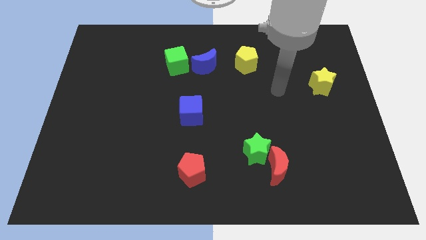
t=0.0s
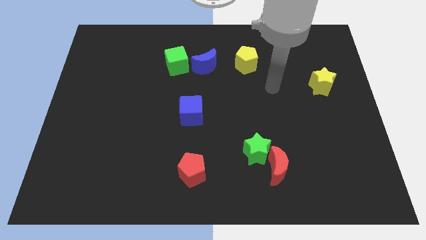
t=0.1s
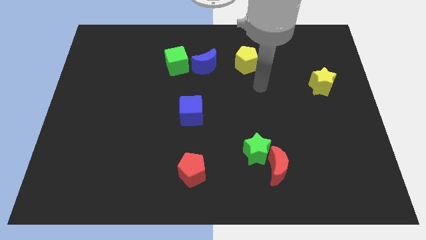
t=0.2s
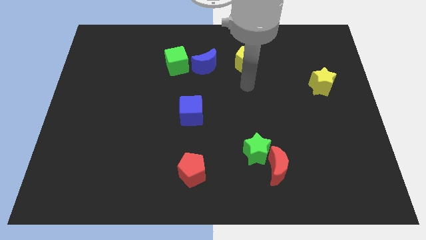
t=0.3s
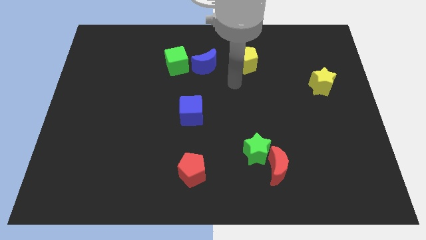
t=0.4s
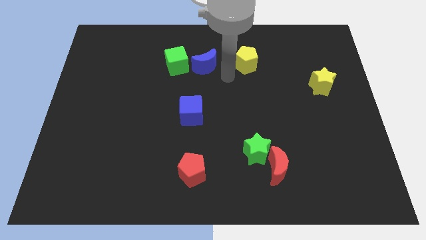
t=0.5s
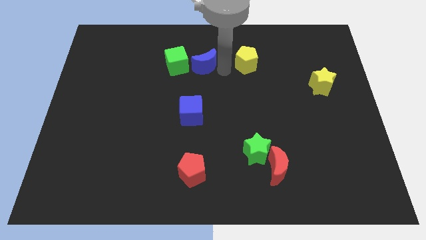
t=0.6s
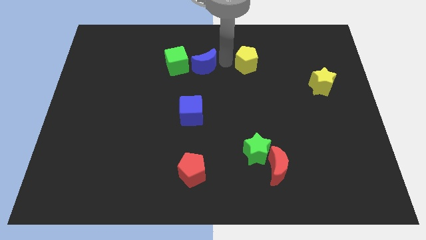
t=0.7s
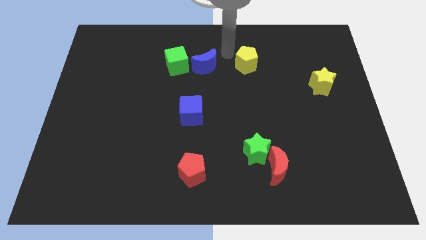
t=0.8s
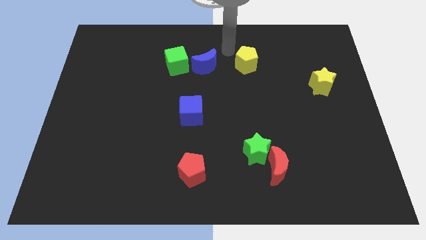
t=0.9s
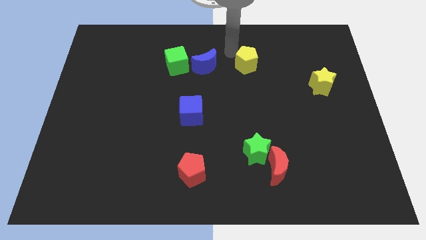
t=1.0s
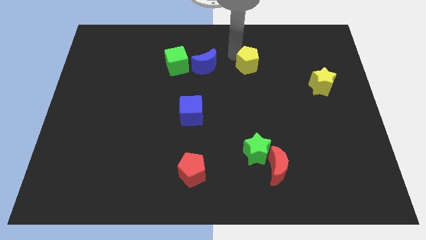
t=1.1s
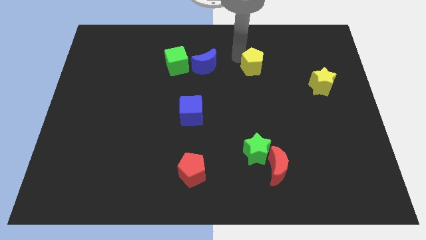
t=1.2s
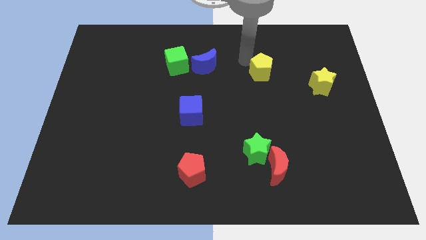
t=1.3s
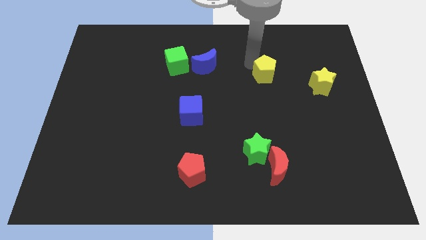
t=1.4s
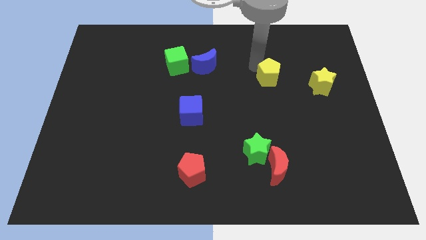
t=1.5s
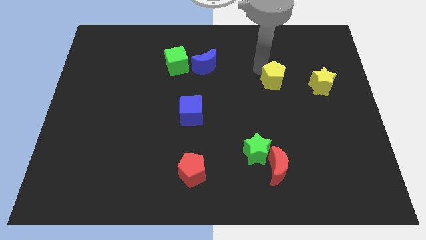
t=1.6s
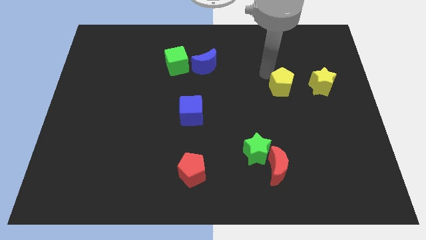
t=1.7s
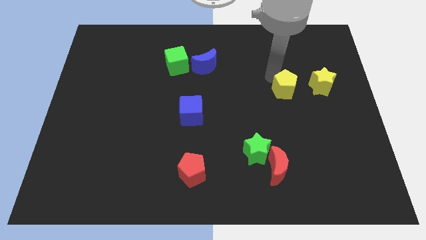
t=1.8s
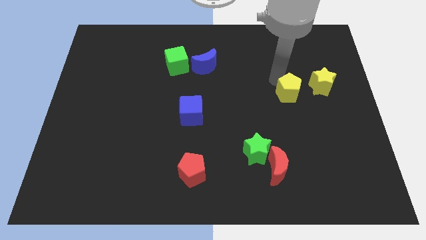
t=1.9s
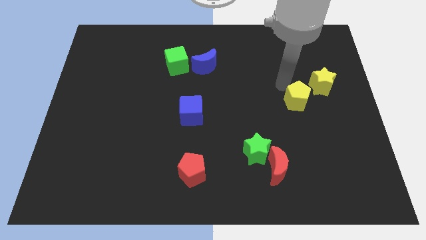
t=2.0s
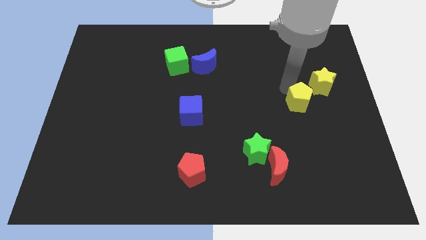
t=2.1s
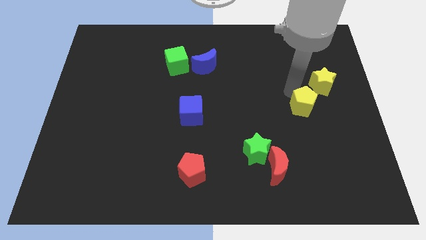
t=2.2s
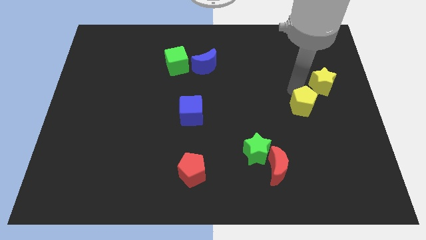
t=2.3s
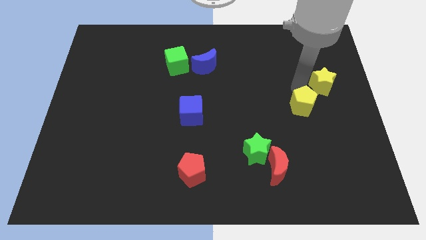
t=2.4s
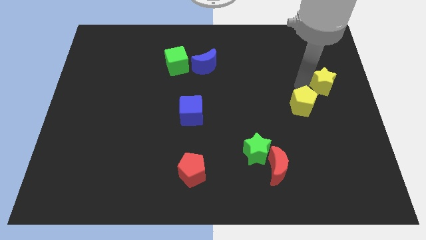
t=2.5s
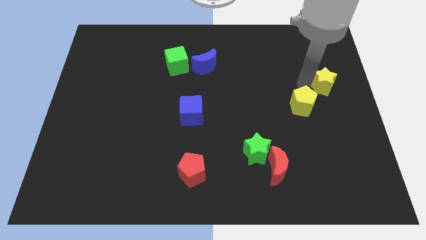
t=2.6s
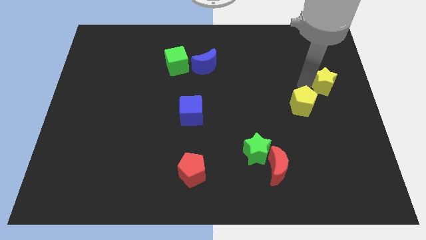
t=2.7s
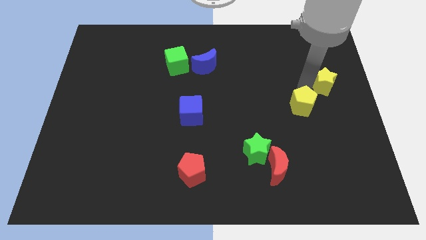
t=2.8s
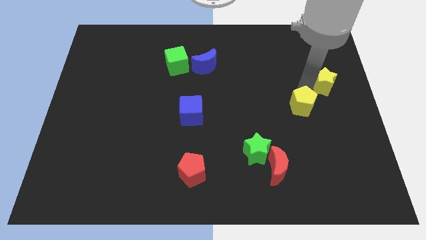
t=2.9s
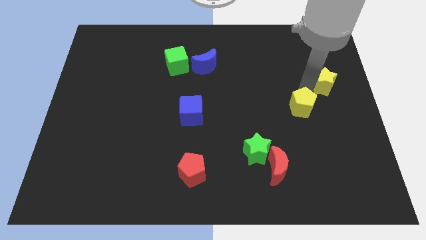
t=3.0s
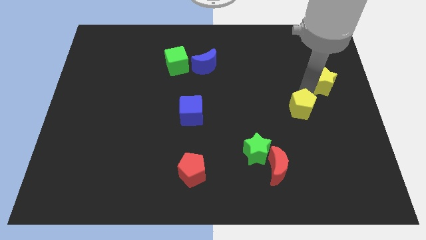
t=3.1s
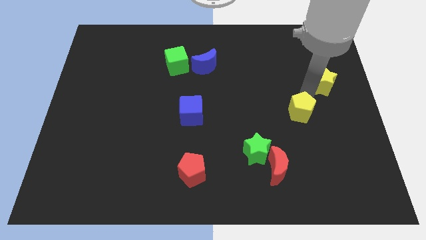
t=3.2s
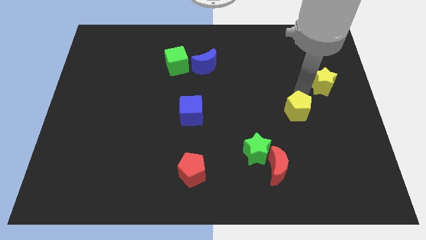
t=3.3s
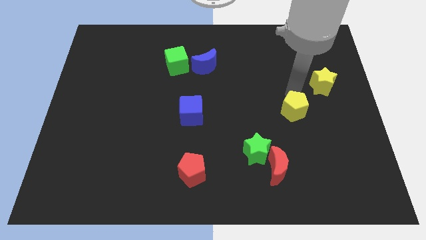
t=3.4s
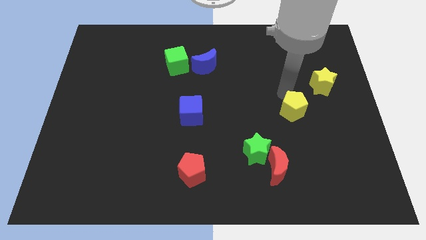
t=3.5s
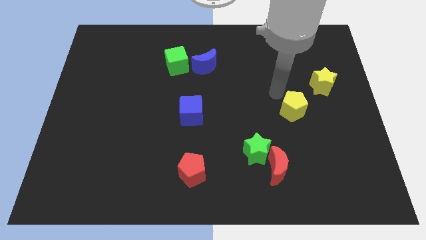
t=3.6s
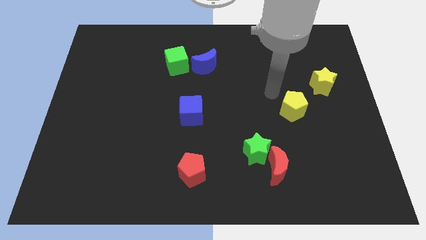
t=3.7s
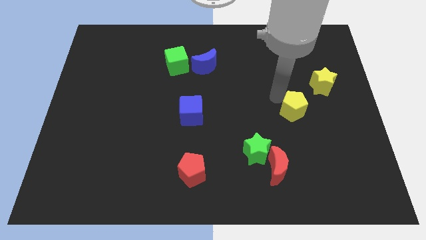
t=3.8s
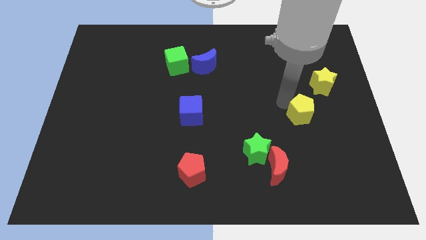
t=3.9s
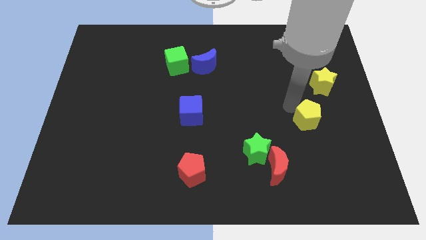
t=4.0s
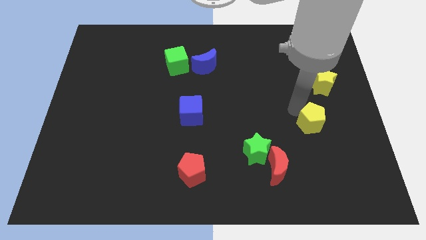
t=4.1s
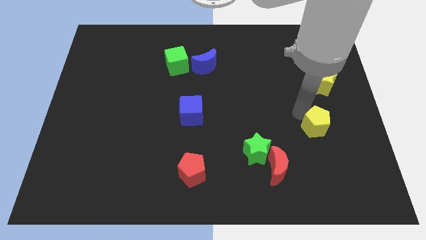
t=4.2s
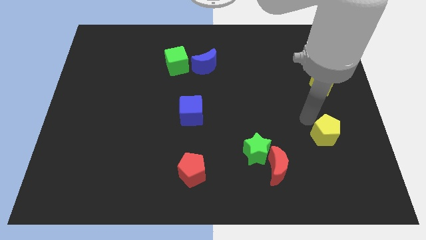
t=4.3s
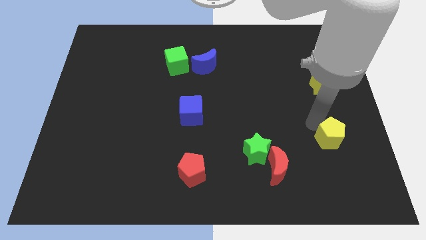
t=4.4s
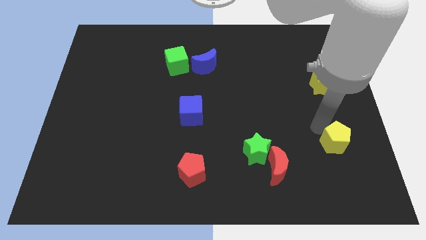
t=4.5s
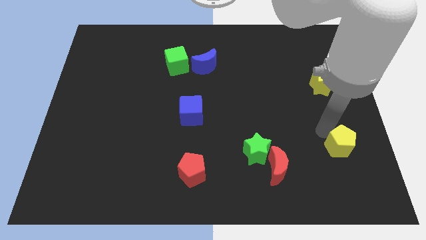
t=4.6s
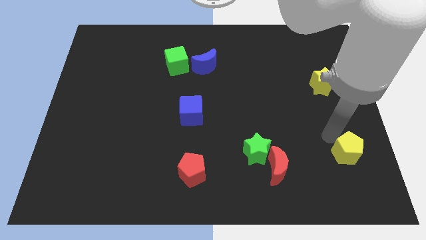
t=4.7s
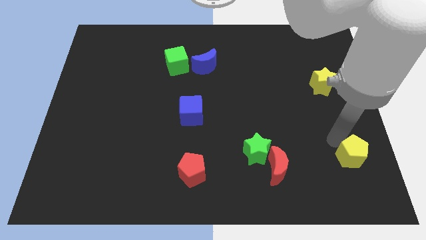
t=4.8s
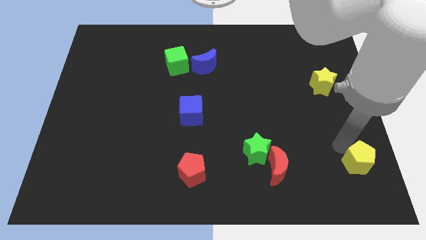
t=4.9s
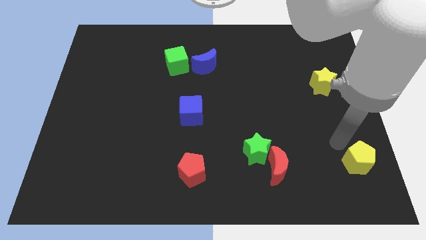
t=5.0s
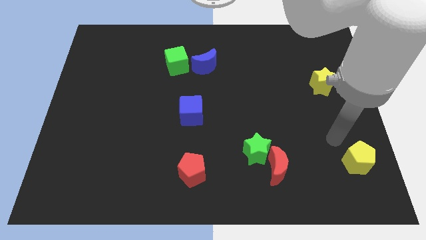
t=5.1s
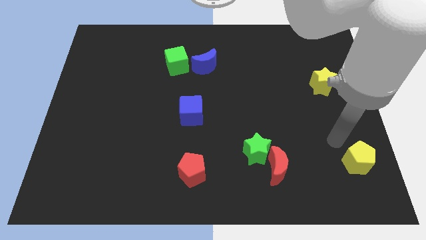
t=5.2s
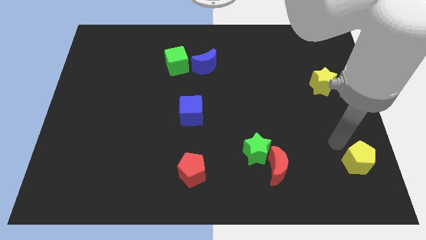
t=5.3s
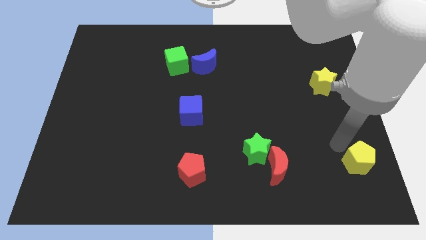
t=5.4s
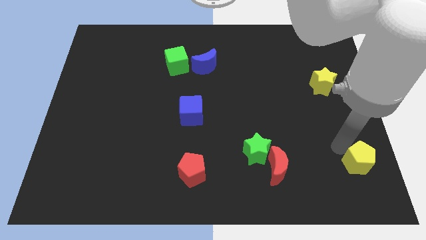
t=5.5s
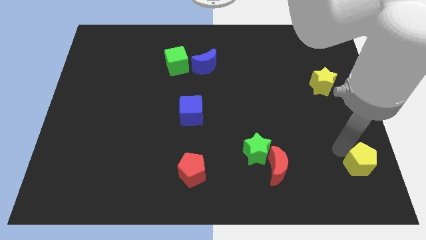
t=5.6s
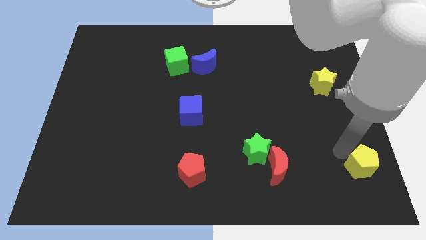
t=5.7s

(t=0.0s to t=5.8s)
slide the yellow pentagon to the lower right corner
